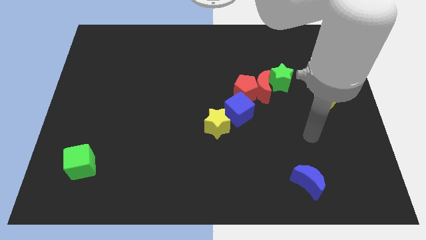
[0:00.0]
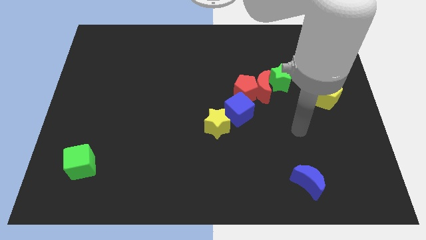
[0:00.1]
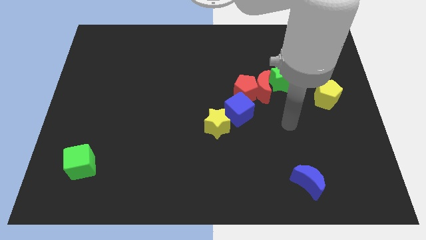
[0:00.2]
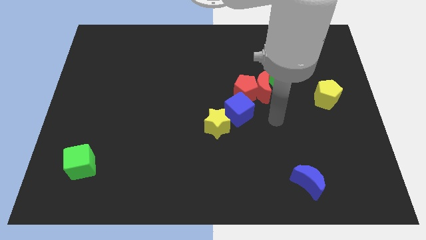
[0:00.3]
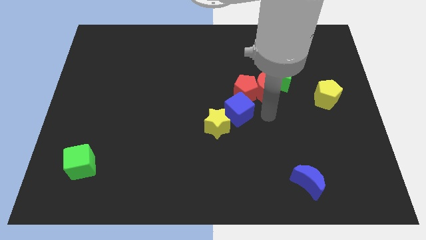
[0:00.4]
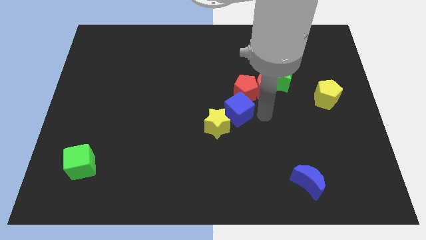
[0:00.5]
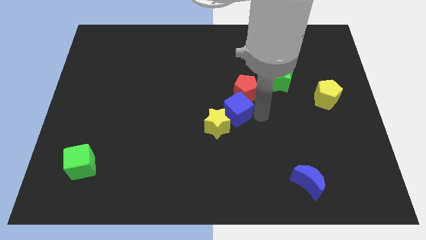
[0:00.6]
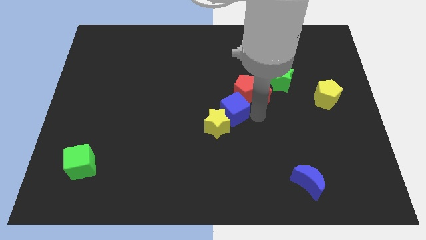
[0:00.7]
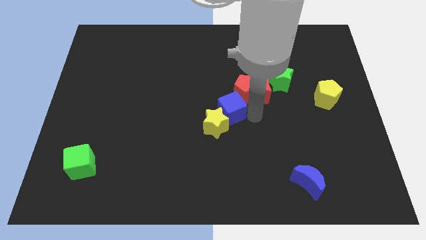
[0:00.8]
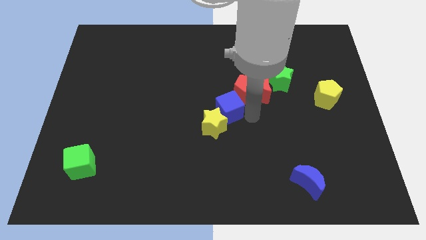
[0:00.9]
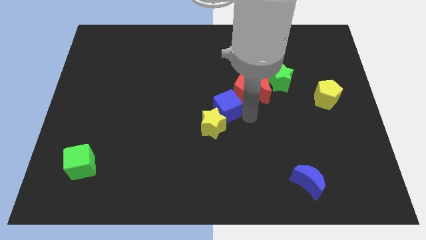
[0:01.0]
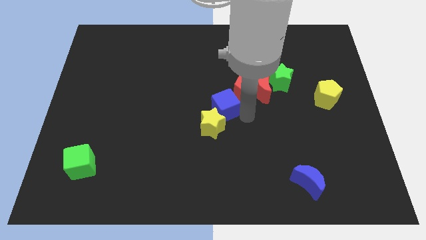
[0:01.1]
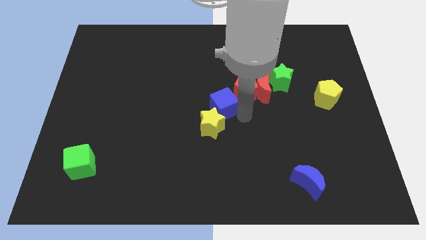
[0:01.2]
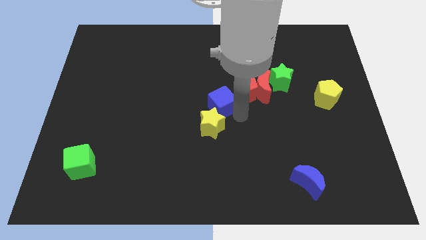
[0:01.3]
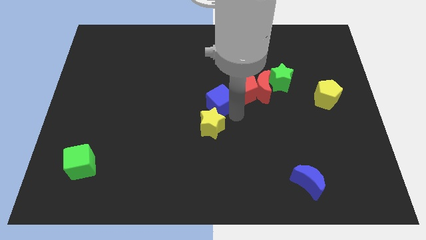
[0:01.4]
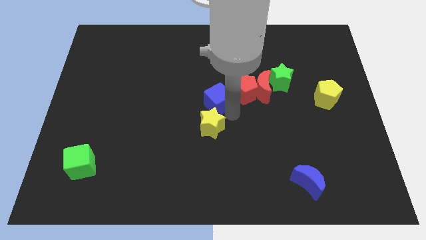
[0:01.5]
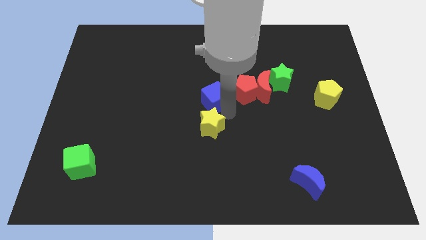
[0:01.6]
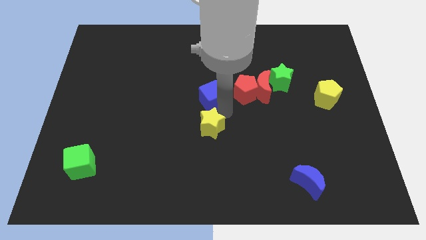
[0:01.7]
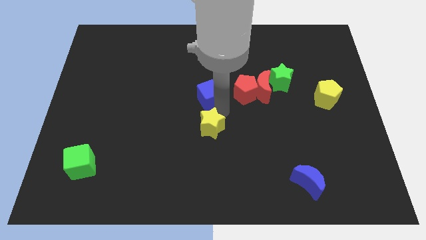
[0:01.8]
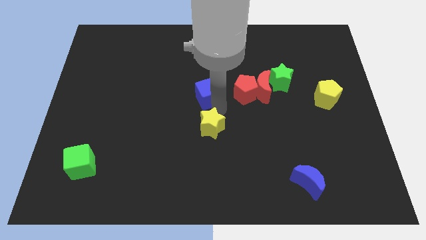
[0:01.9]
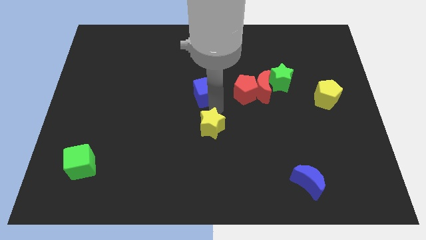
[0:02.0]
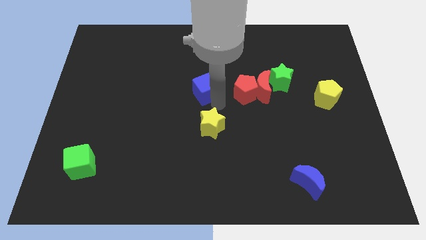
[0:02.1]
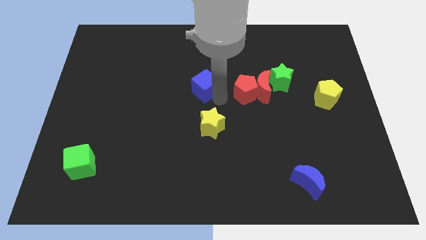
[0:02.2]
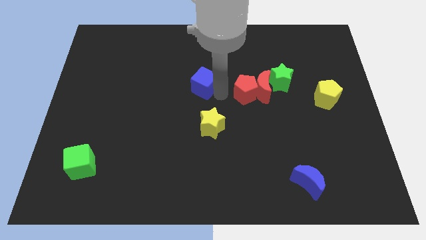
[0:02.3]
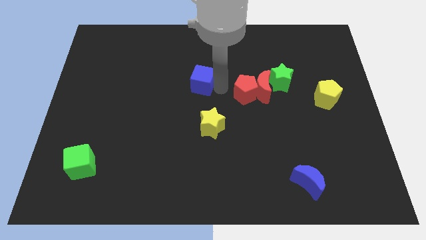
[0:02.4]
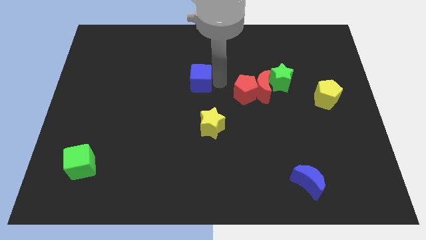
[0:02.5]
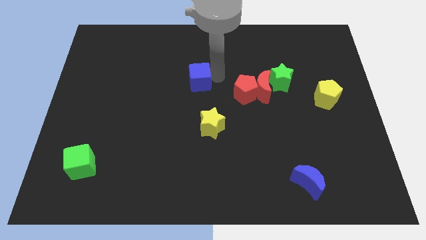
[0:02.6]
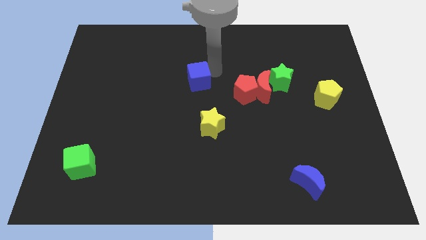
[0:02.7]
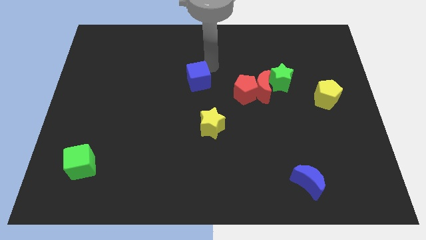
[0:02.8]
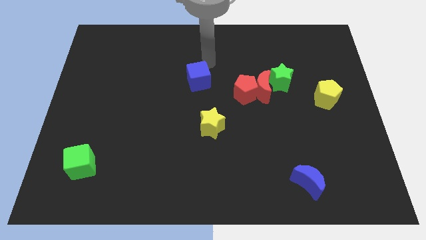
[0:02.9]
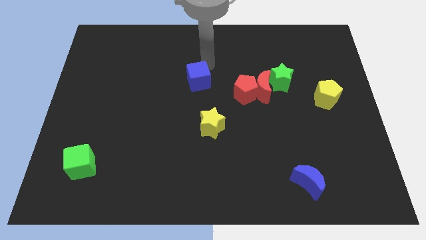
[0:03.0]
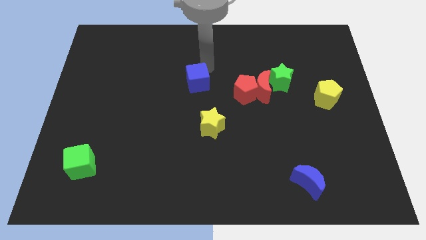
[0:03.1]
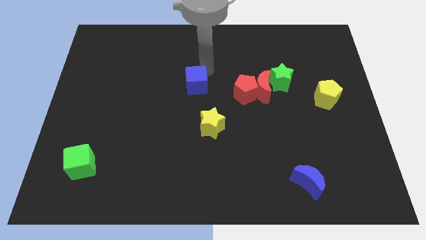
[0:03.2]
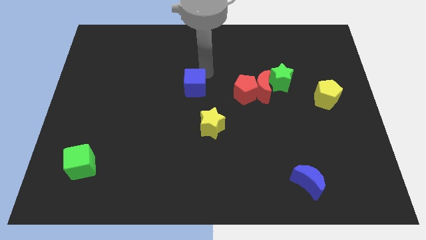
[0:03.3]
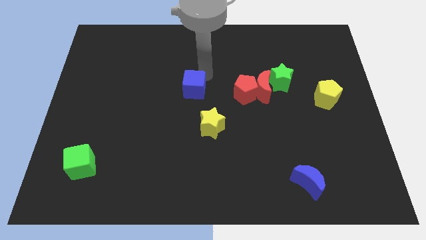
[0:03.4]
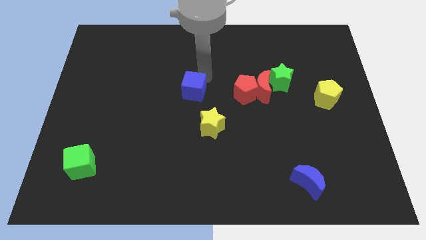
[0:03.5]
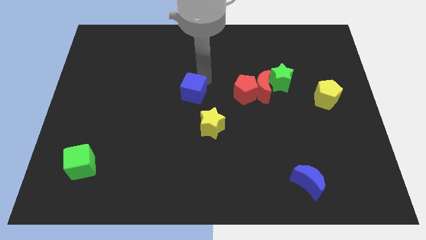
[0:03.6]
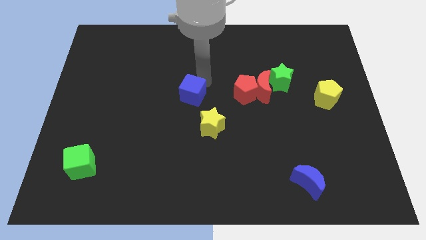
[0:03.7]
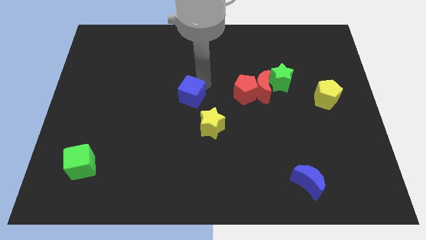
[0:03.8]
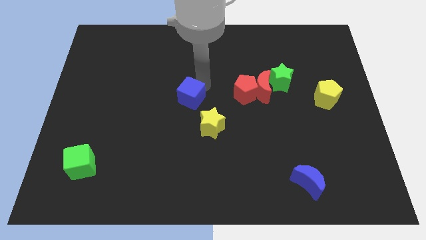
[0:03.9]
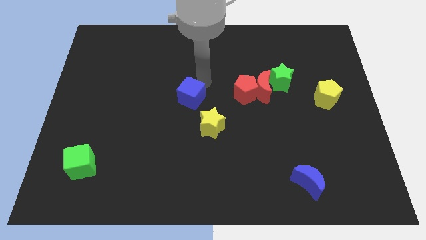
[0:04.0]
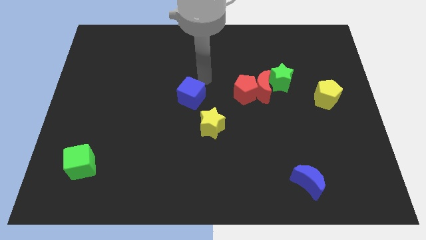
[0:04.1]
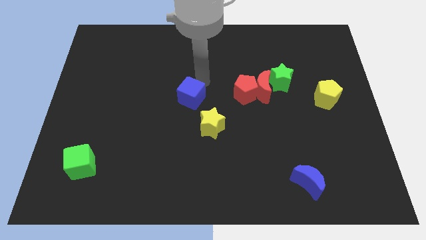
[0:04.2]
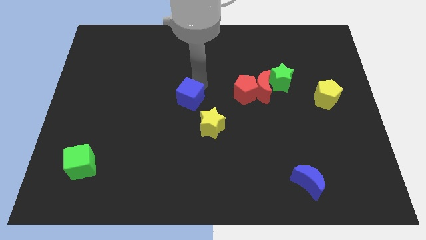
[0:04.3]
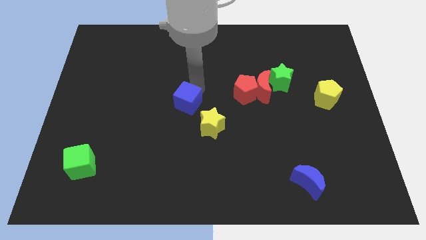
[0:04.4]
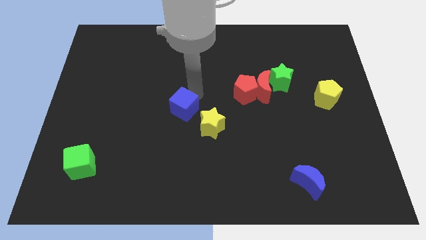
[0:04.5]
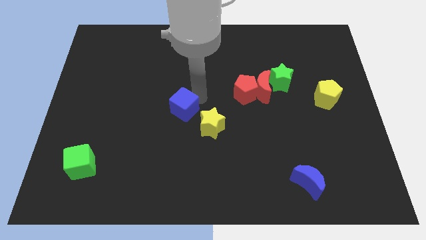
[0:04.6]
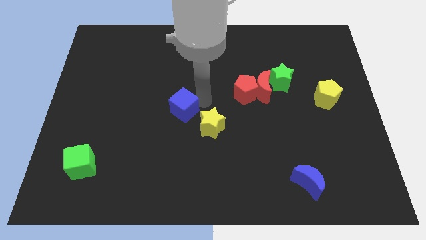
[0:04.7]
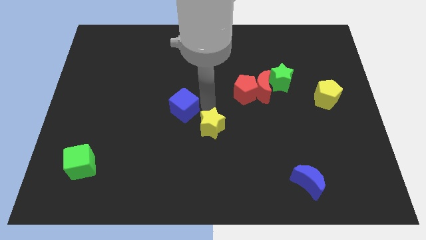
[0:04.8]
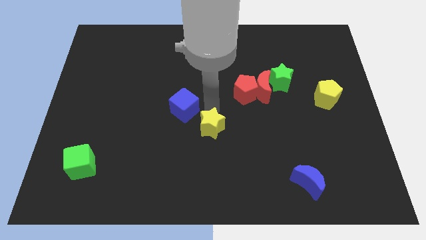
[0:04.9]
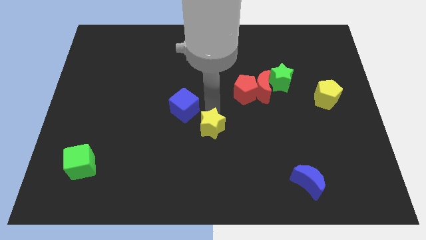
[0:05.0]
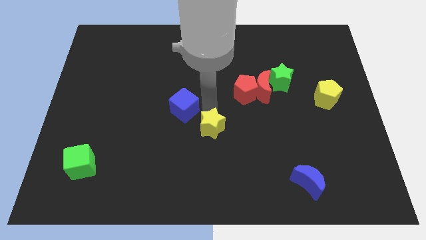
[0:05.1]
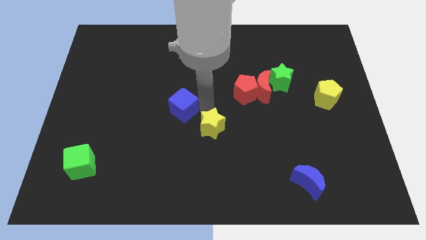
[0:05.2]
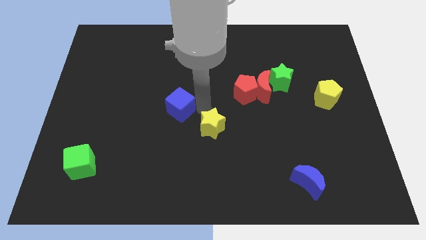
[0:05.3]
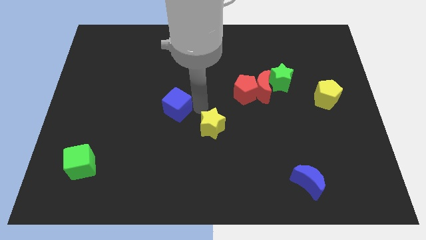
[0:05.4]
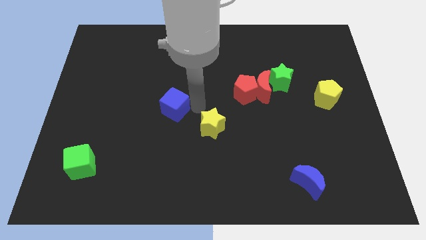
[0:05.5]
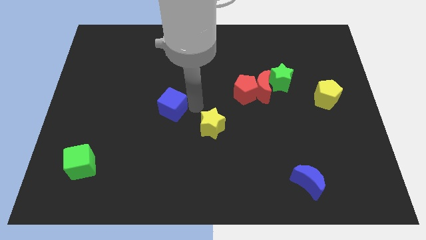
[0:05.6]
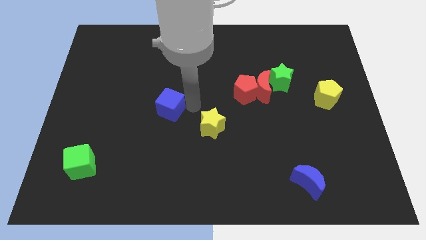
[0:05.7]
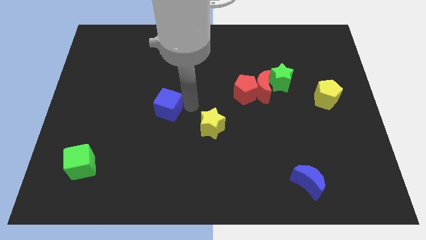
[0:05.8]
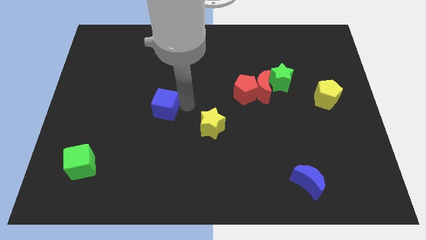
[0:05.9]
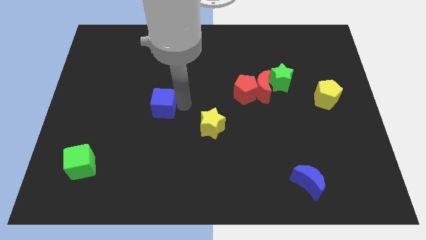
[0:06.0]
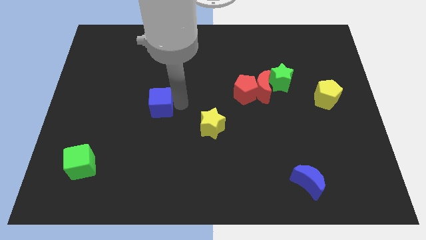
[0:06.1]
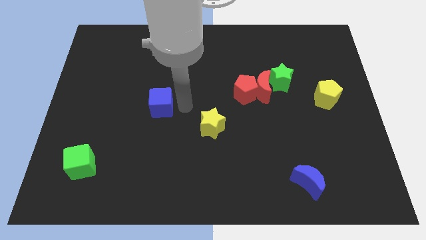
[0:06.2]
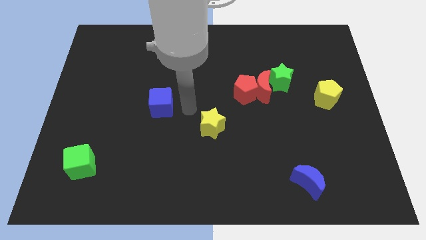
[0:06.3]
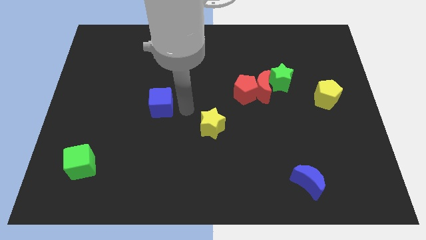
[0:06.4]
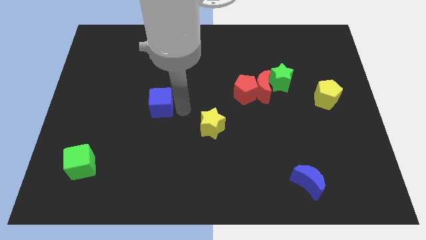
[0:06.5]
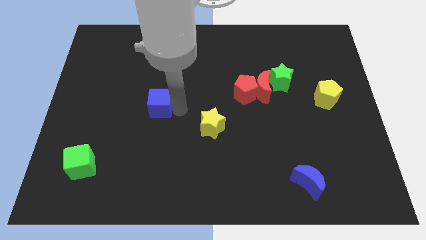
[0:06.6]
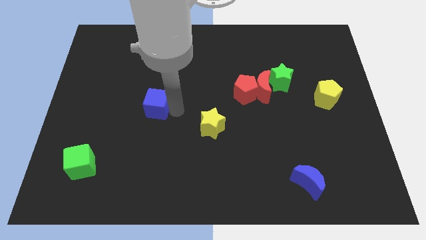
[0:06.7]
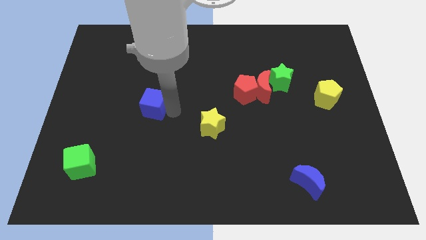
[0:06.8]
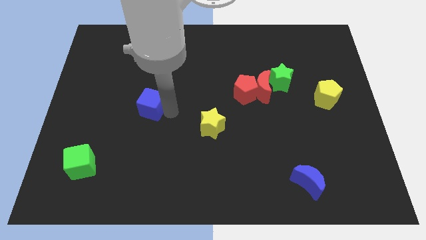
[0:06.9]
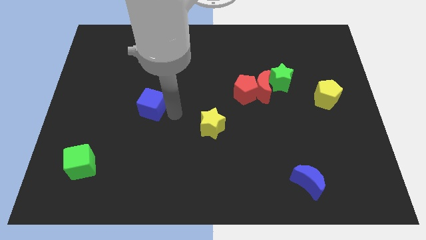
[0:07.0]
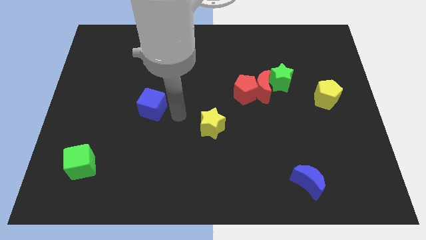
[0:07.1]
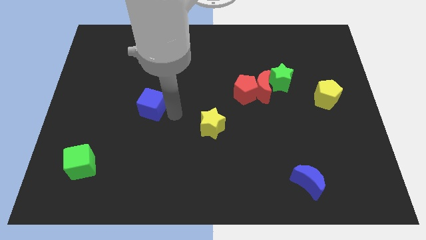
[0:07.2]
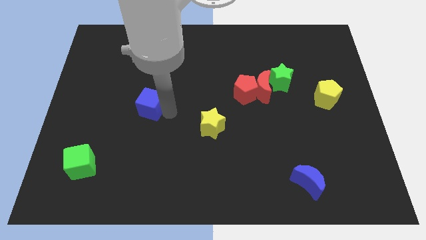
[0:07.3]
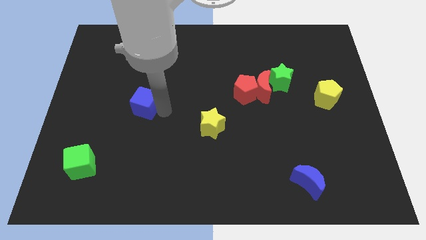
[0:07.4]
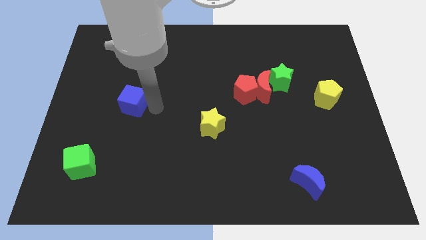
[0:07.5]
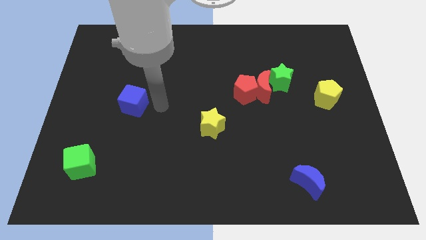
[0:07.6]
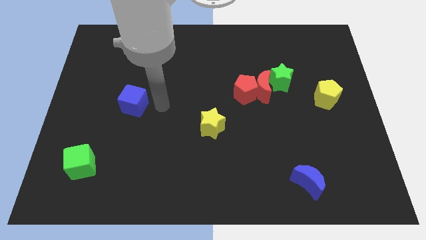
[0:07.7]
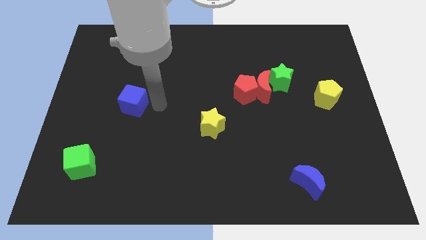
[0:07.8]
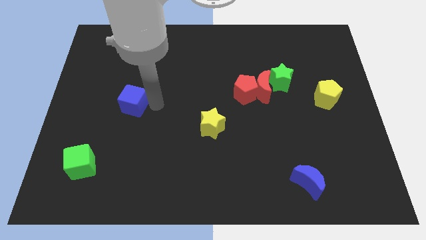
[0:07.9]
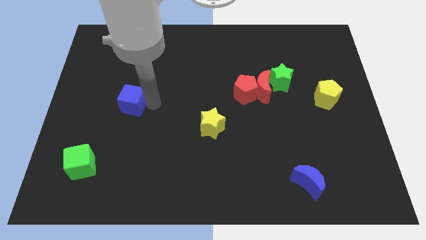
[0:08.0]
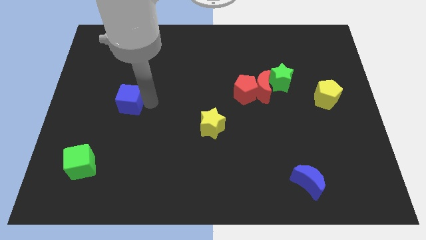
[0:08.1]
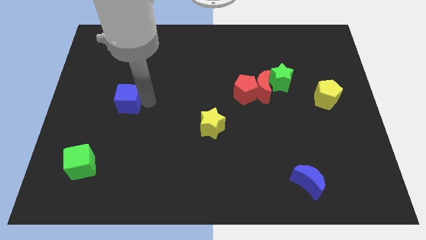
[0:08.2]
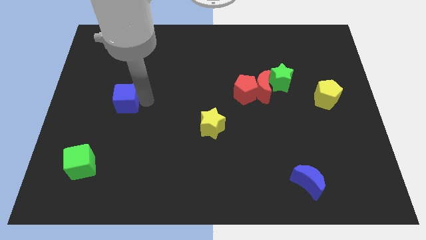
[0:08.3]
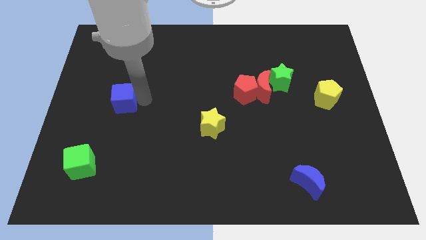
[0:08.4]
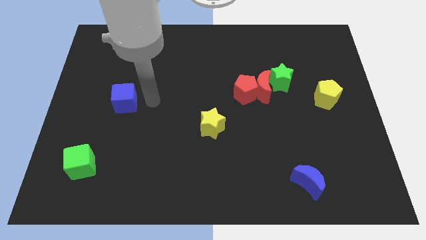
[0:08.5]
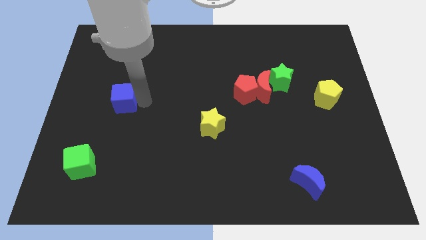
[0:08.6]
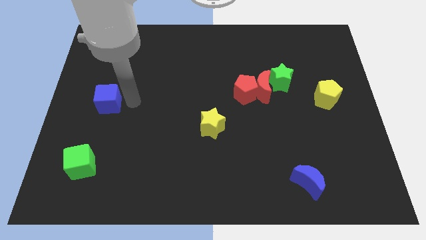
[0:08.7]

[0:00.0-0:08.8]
push the blue cube to the center left
